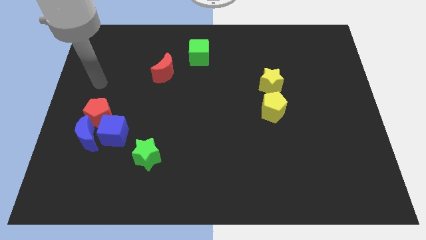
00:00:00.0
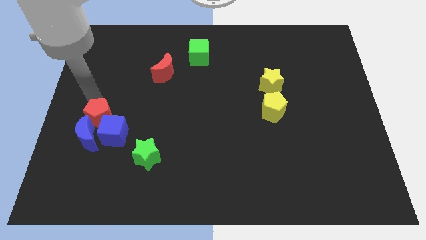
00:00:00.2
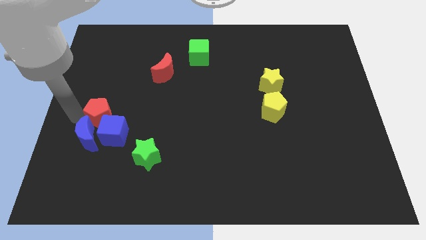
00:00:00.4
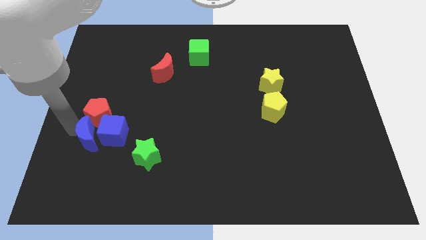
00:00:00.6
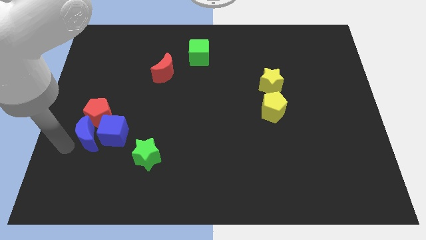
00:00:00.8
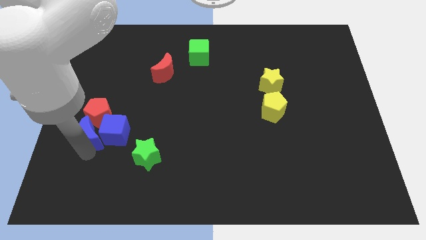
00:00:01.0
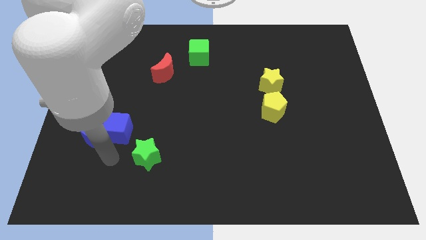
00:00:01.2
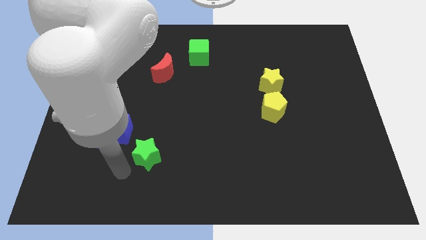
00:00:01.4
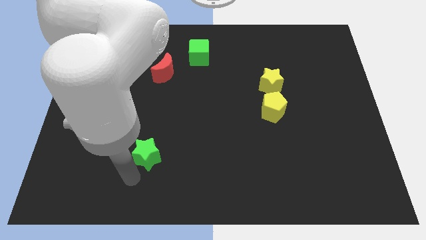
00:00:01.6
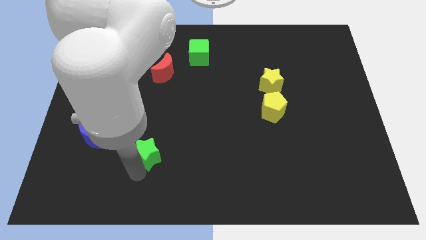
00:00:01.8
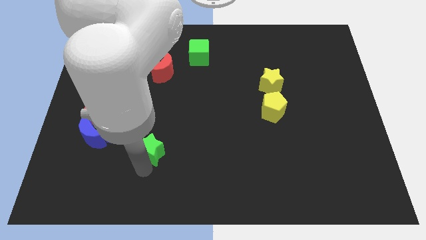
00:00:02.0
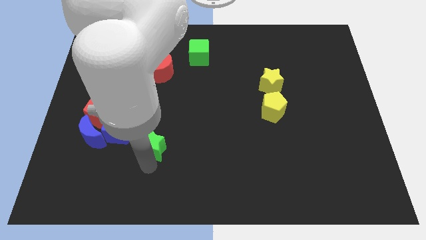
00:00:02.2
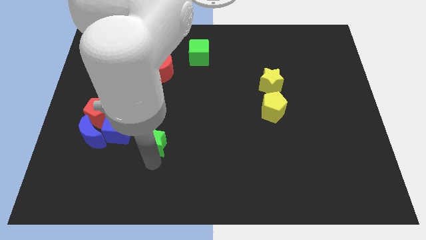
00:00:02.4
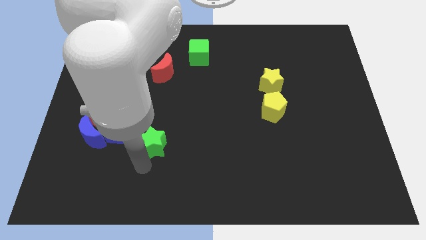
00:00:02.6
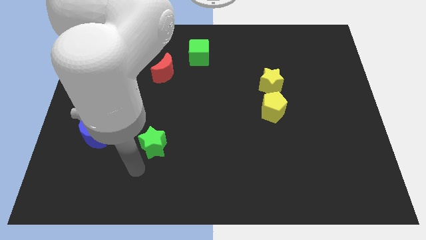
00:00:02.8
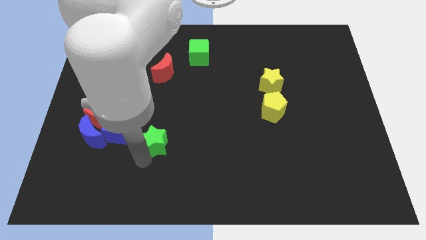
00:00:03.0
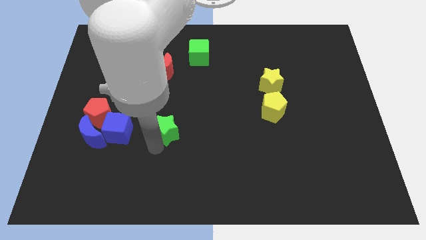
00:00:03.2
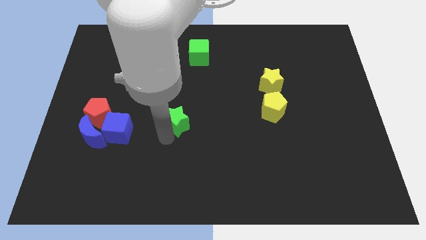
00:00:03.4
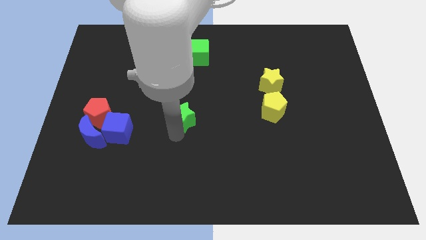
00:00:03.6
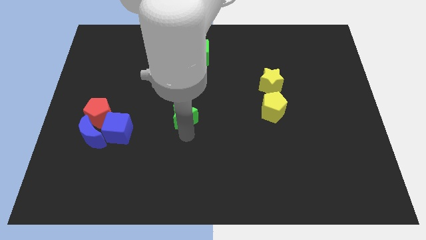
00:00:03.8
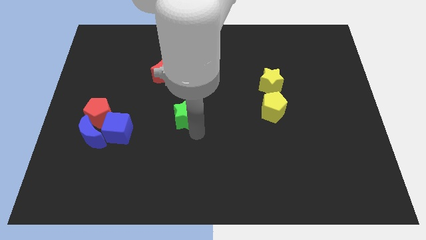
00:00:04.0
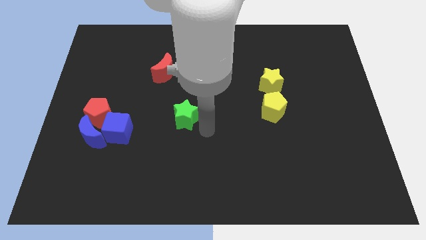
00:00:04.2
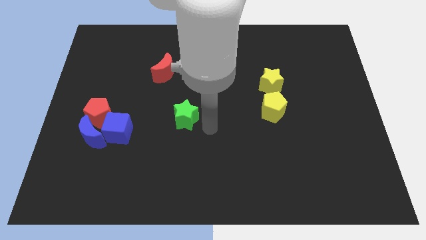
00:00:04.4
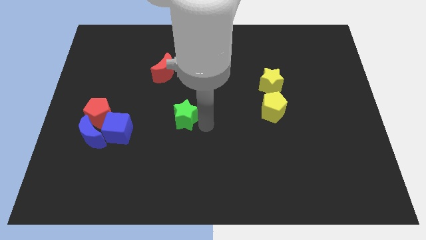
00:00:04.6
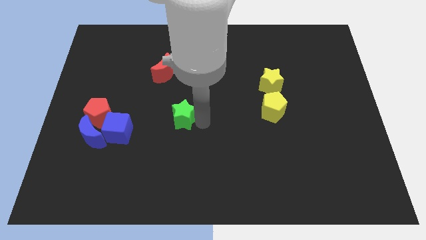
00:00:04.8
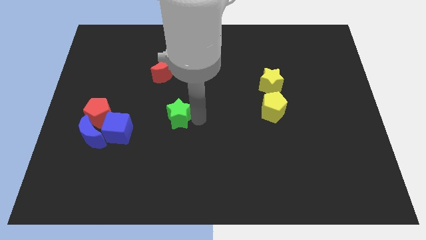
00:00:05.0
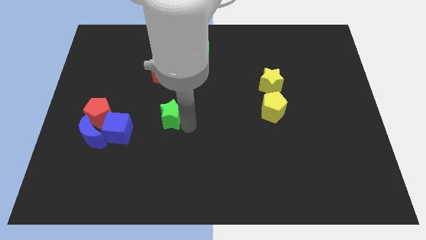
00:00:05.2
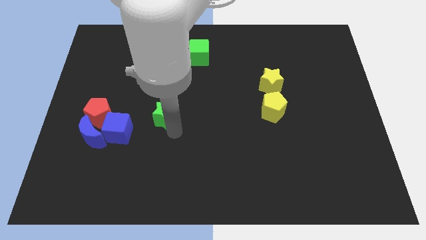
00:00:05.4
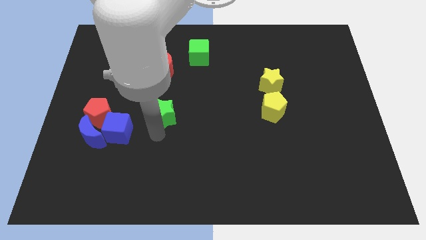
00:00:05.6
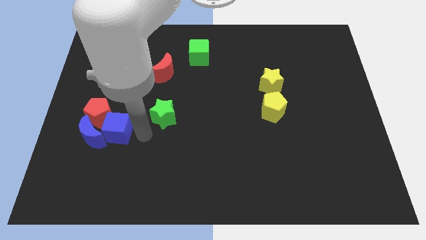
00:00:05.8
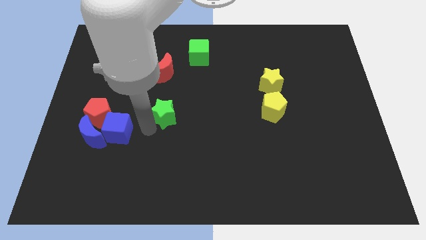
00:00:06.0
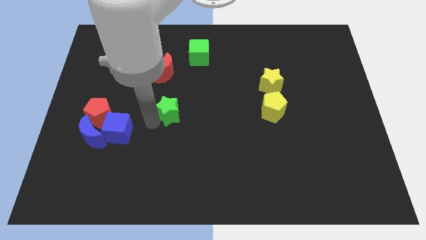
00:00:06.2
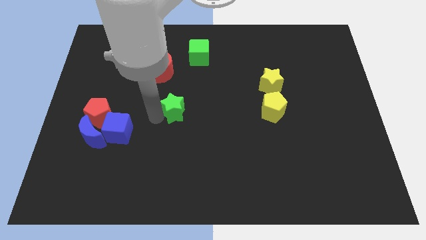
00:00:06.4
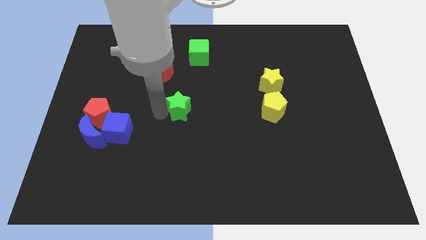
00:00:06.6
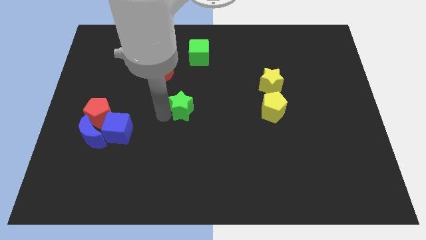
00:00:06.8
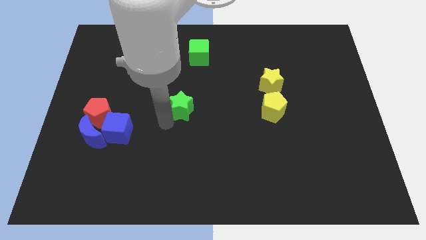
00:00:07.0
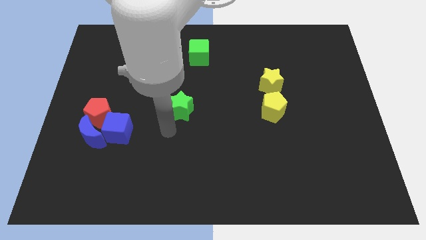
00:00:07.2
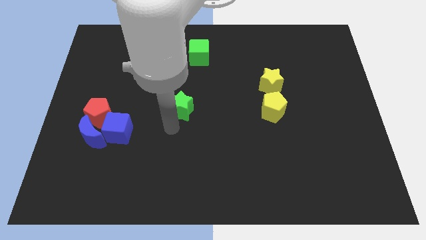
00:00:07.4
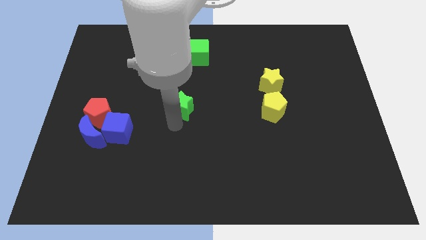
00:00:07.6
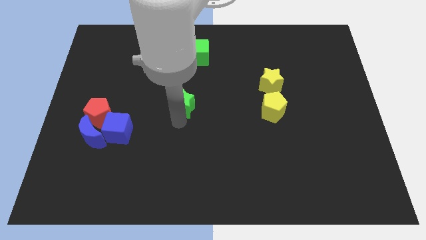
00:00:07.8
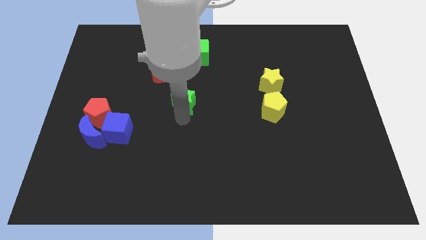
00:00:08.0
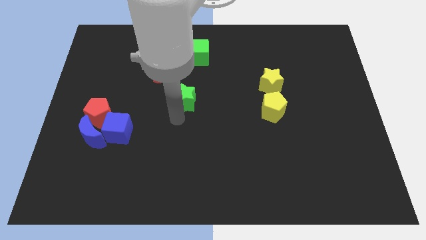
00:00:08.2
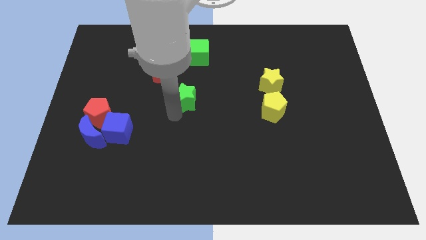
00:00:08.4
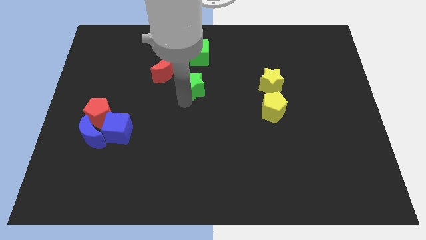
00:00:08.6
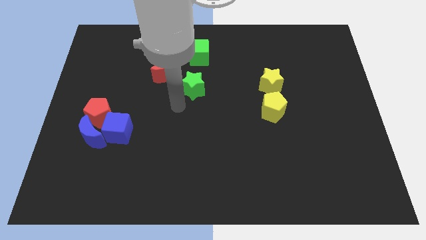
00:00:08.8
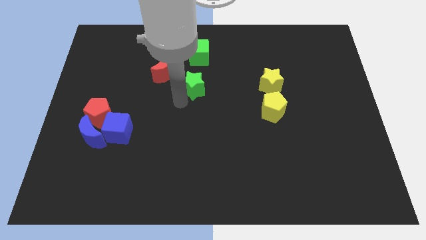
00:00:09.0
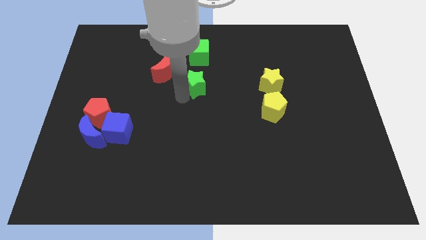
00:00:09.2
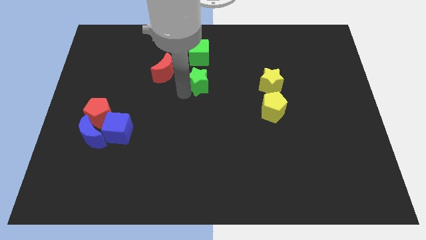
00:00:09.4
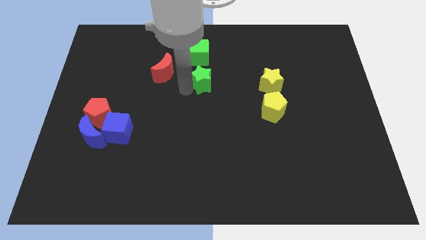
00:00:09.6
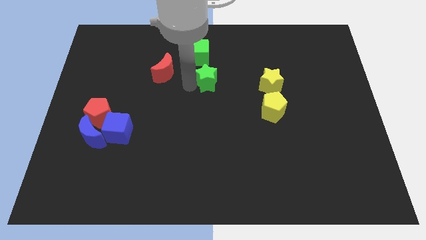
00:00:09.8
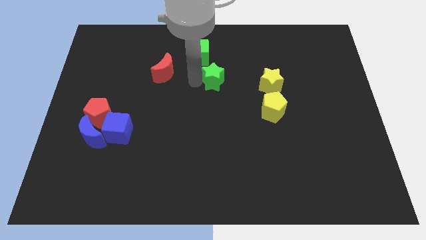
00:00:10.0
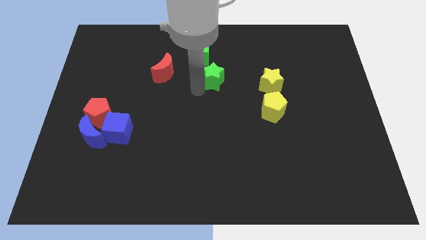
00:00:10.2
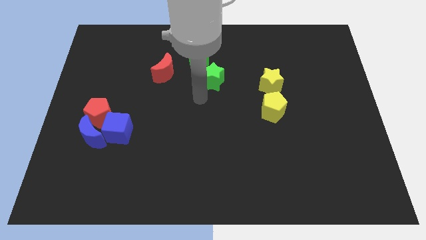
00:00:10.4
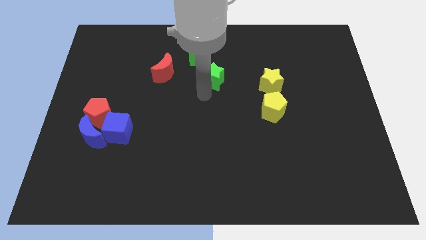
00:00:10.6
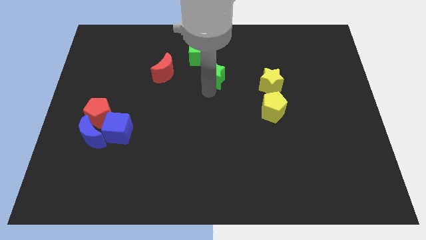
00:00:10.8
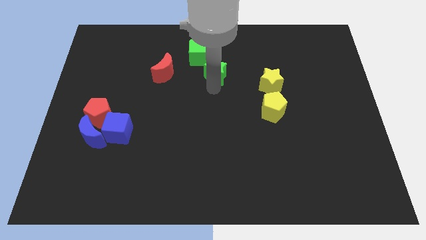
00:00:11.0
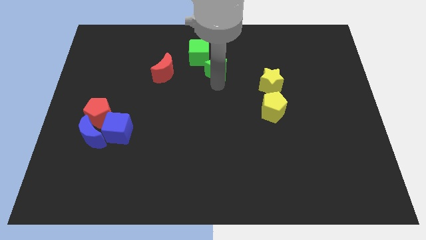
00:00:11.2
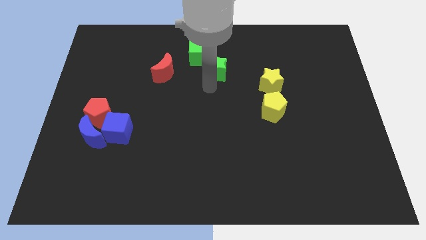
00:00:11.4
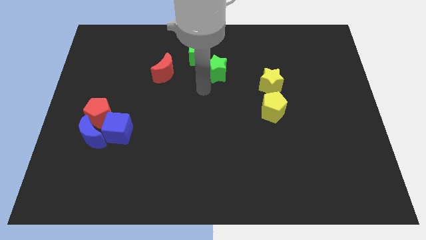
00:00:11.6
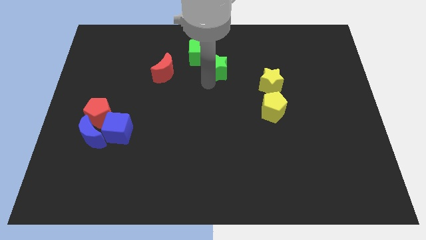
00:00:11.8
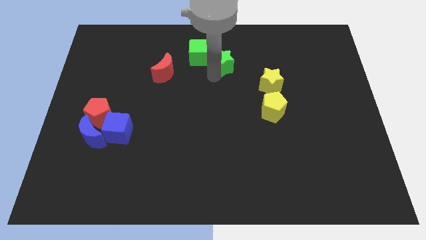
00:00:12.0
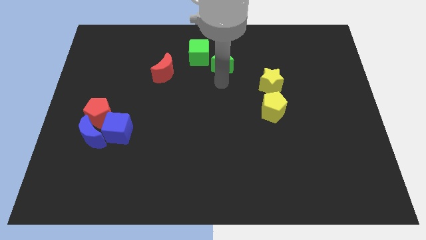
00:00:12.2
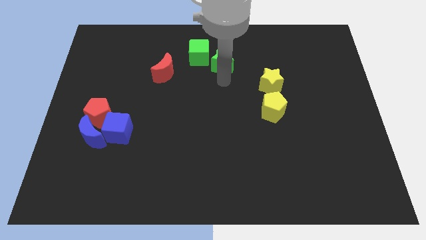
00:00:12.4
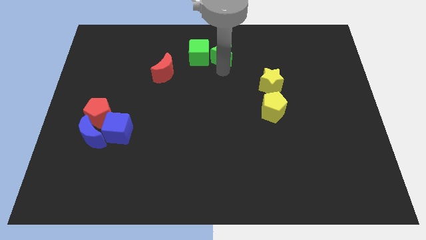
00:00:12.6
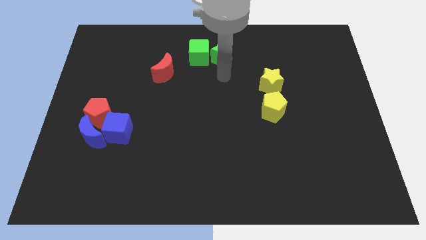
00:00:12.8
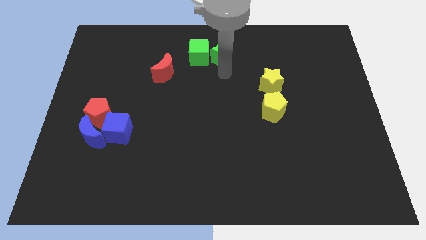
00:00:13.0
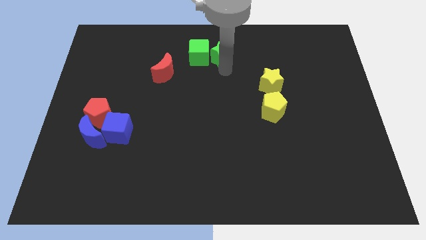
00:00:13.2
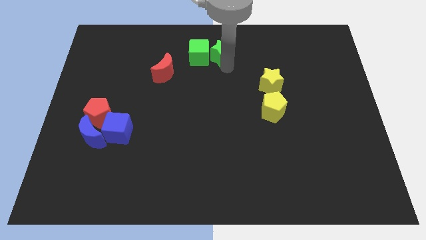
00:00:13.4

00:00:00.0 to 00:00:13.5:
push the green star to the top side
